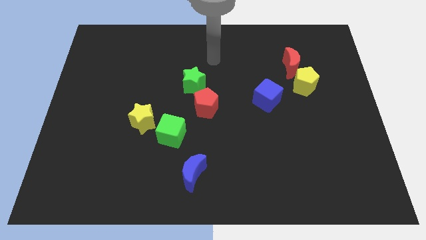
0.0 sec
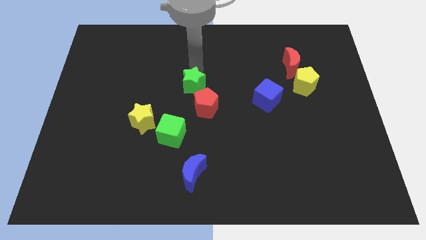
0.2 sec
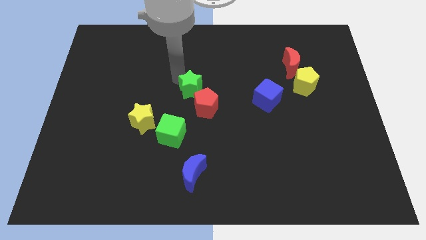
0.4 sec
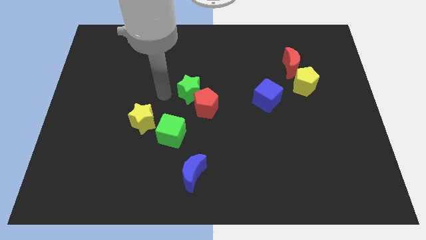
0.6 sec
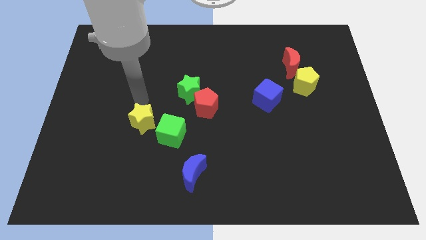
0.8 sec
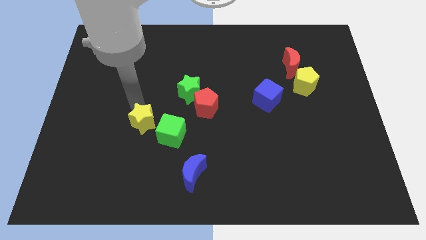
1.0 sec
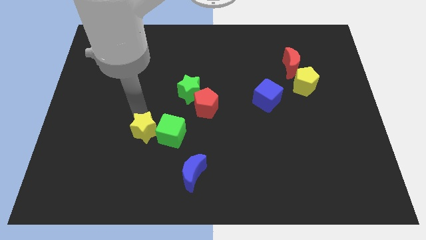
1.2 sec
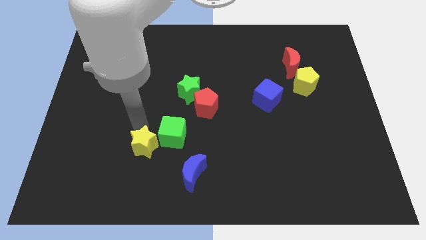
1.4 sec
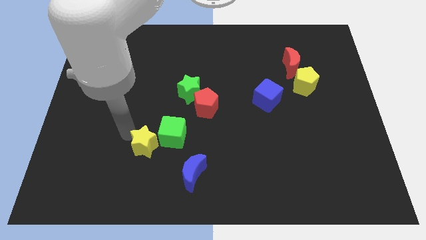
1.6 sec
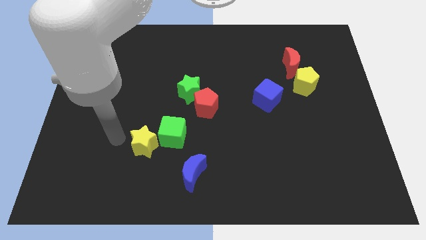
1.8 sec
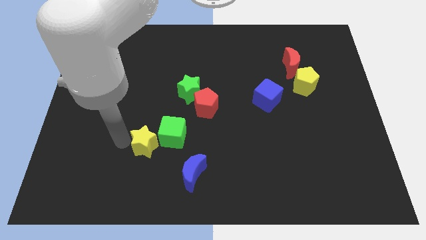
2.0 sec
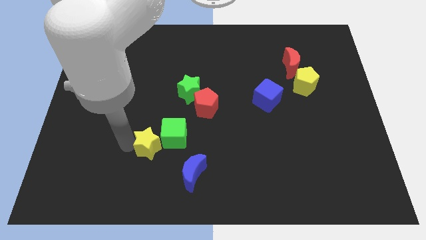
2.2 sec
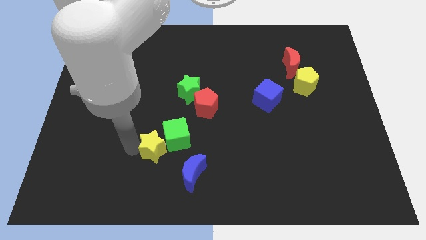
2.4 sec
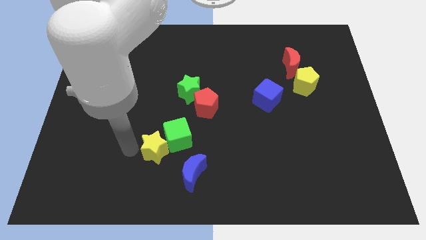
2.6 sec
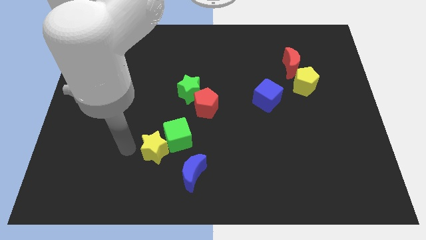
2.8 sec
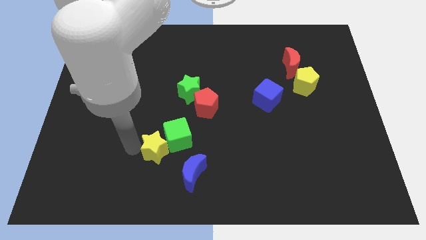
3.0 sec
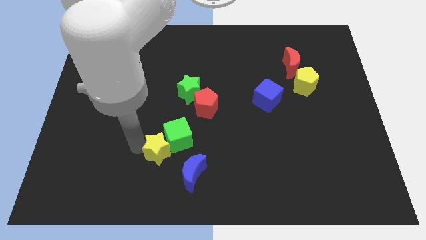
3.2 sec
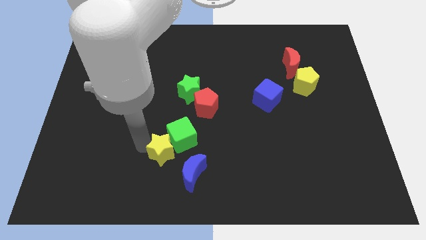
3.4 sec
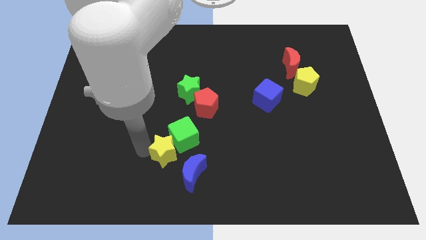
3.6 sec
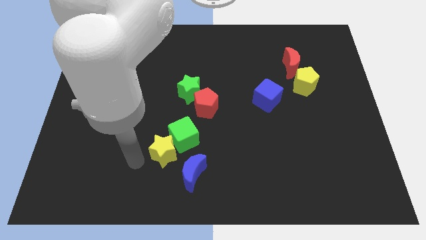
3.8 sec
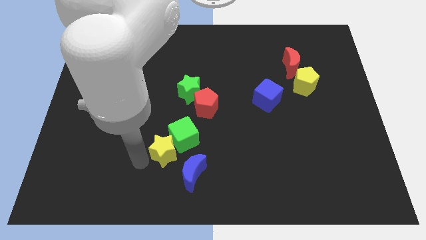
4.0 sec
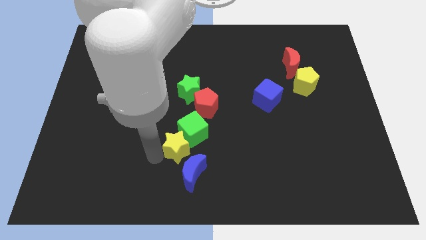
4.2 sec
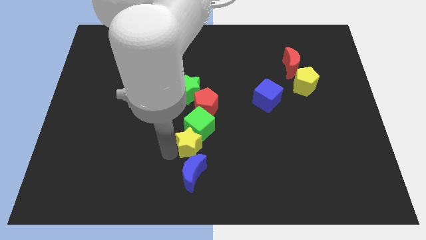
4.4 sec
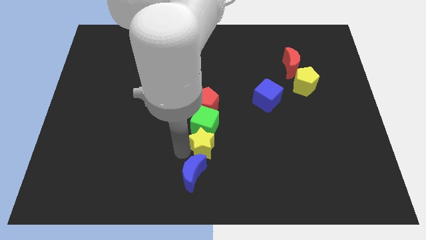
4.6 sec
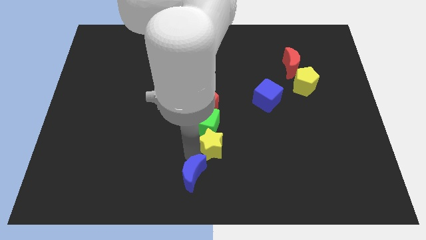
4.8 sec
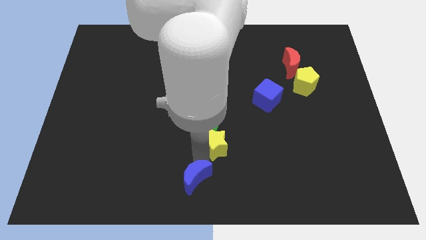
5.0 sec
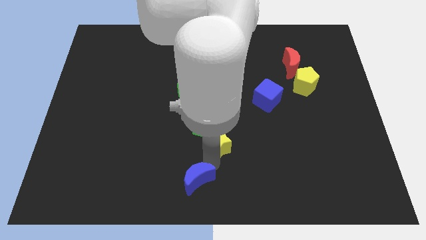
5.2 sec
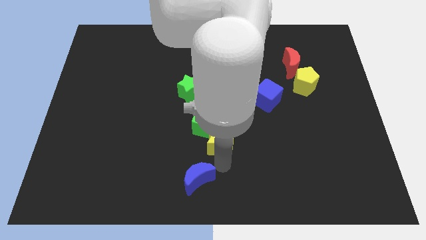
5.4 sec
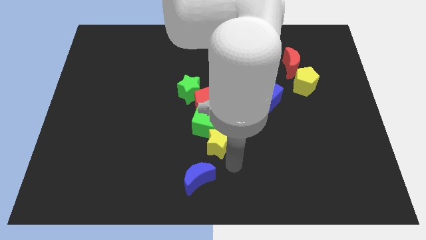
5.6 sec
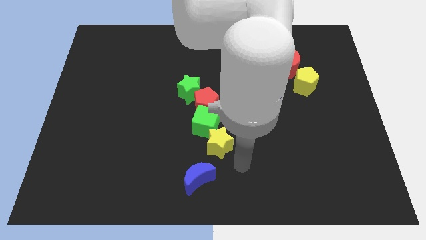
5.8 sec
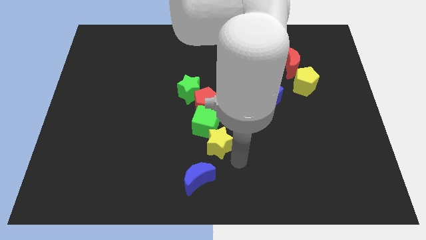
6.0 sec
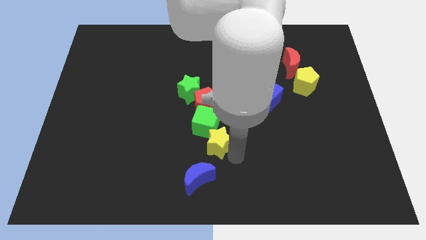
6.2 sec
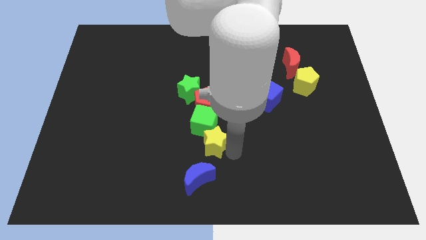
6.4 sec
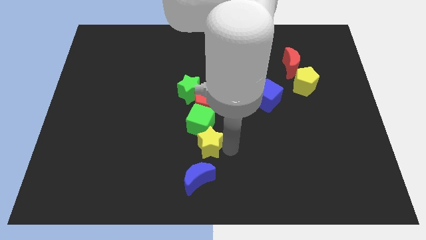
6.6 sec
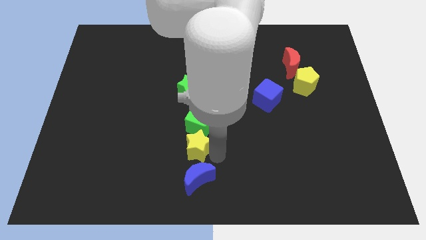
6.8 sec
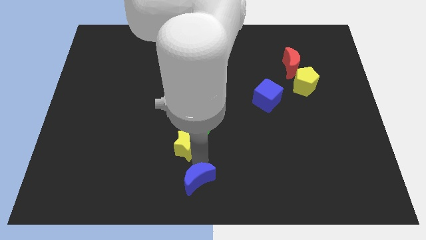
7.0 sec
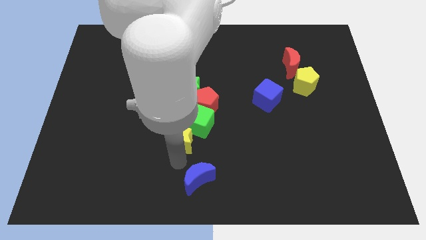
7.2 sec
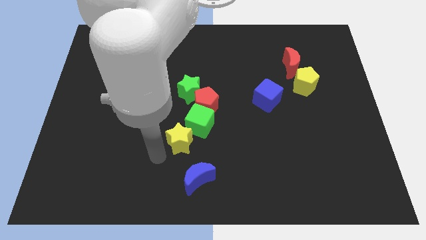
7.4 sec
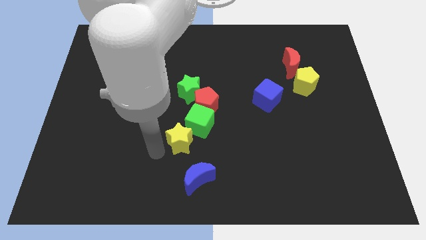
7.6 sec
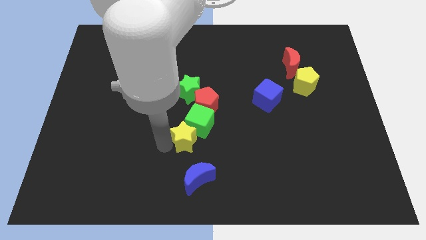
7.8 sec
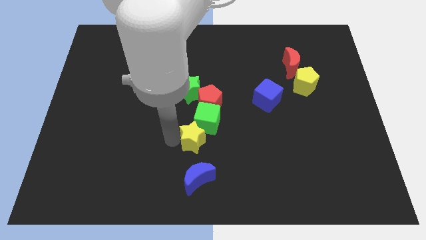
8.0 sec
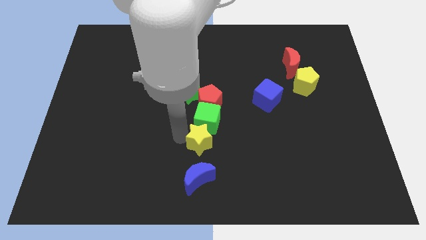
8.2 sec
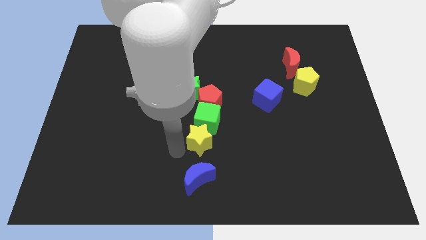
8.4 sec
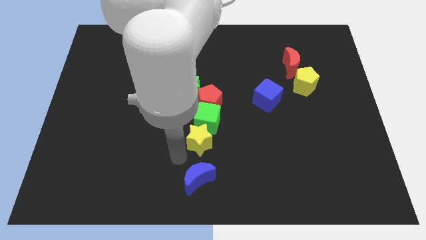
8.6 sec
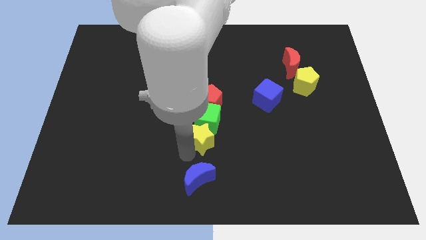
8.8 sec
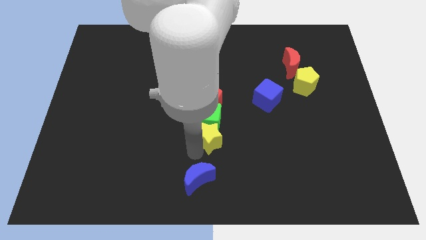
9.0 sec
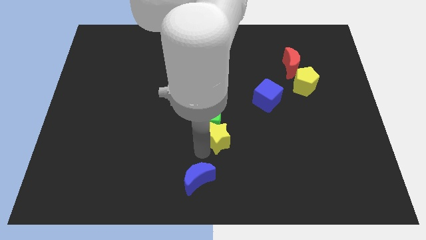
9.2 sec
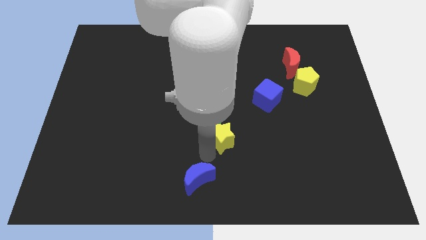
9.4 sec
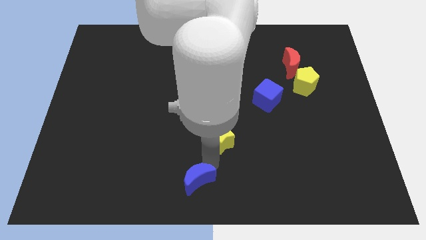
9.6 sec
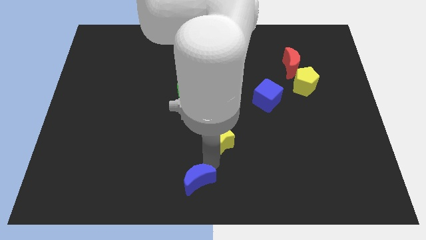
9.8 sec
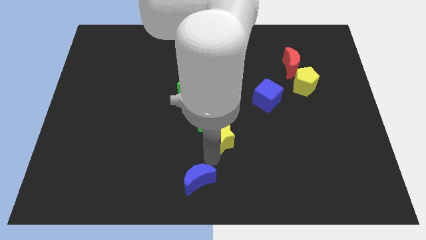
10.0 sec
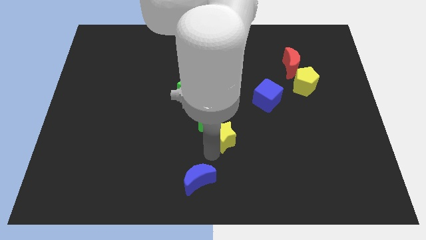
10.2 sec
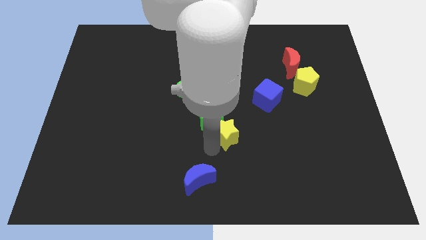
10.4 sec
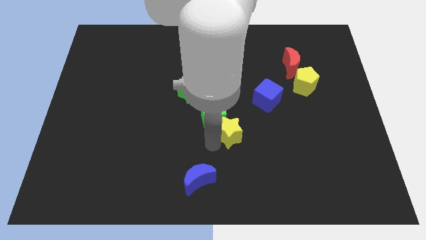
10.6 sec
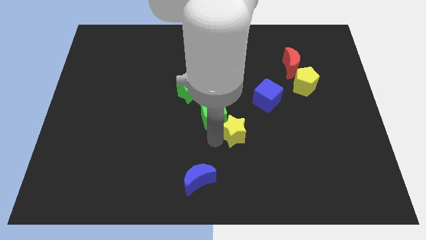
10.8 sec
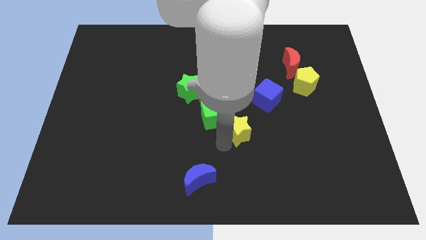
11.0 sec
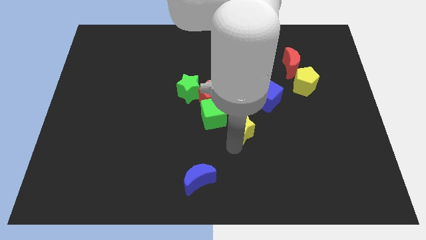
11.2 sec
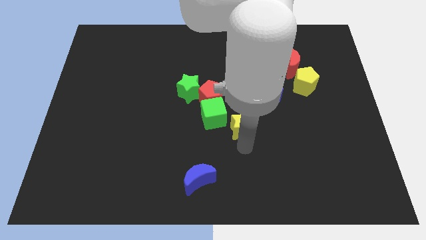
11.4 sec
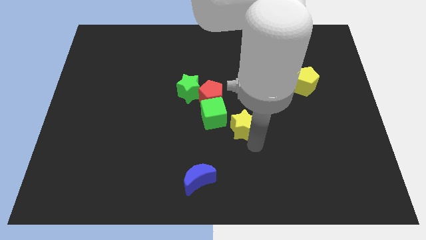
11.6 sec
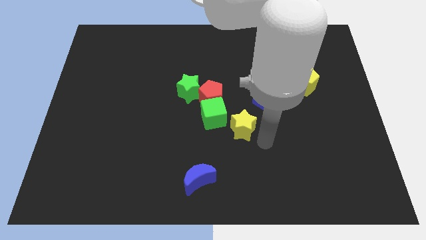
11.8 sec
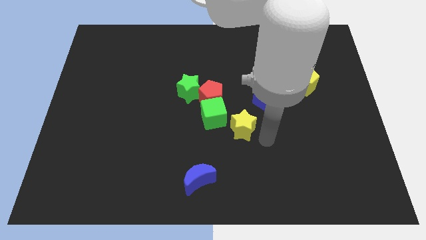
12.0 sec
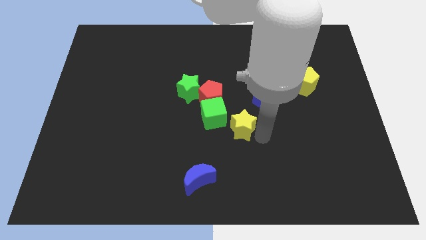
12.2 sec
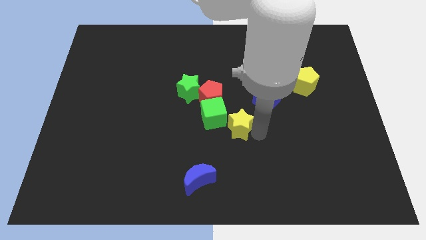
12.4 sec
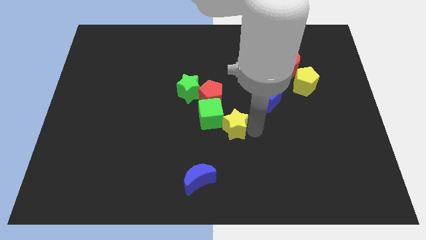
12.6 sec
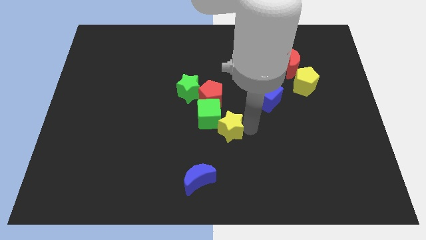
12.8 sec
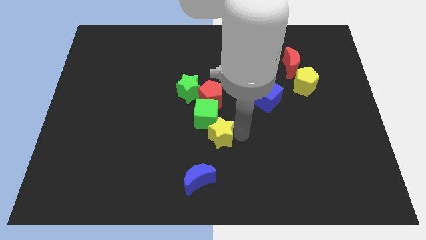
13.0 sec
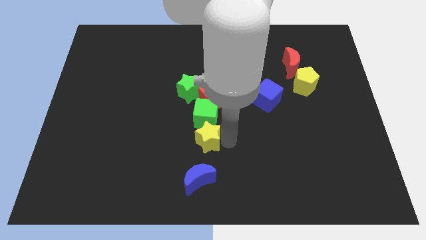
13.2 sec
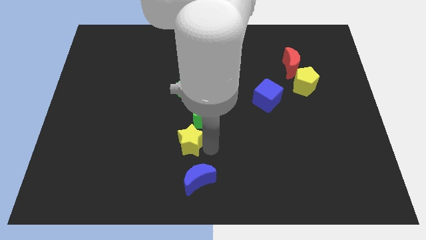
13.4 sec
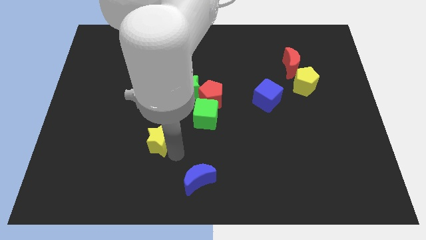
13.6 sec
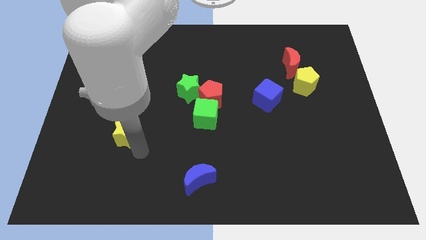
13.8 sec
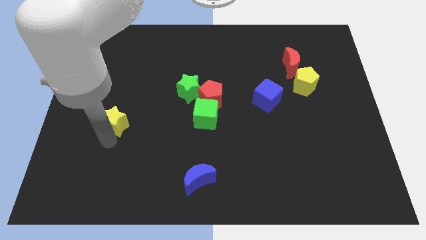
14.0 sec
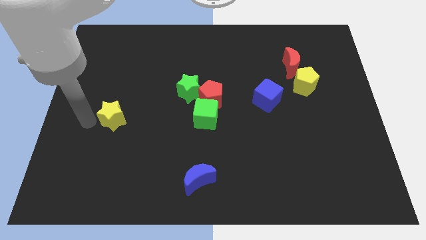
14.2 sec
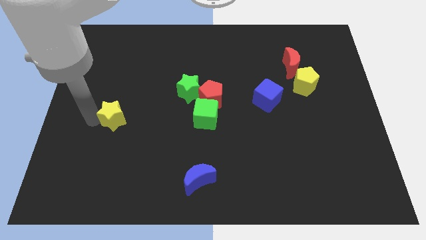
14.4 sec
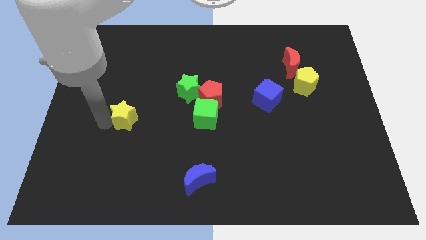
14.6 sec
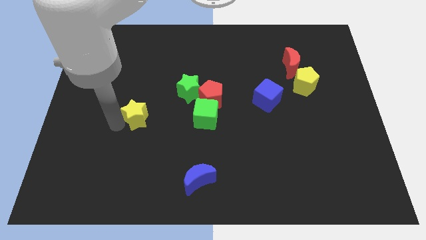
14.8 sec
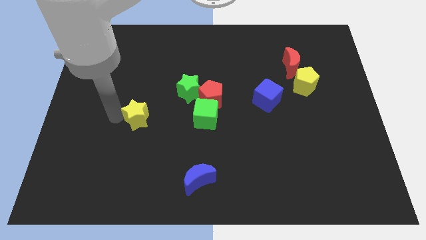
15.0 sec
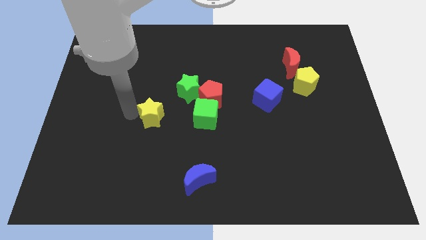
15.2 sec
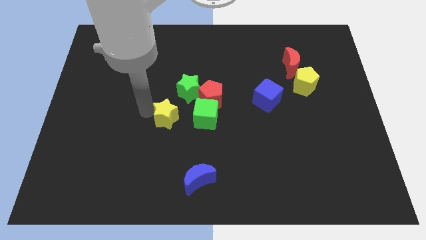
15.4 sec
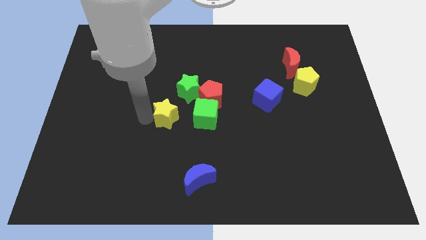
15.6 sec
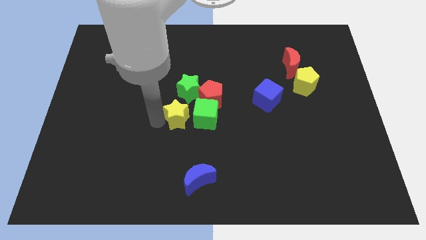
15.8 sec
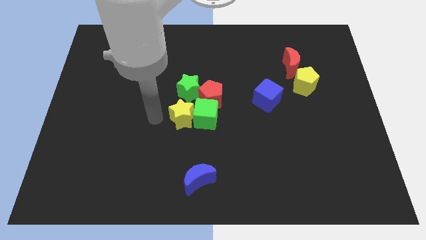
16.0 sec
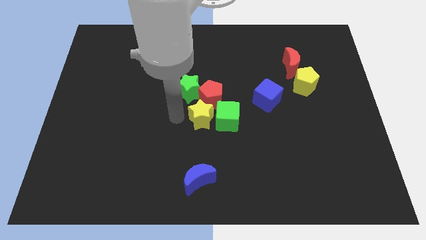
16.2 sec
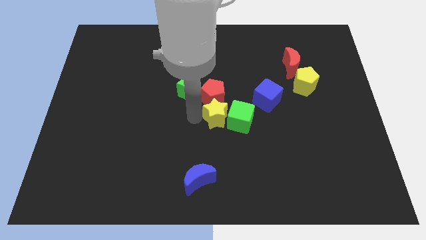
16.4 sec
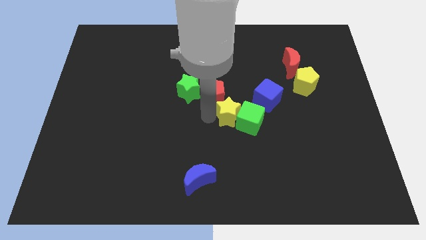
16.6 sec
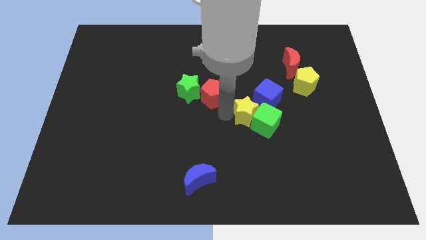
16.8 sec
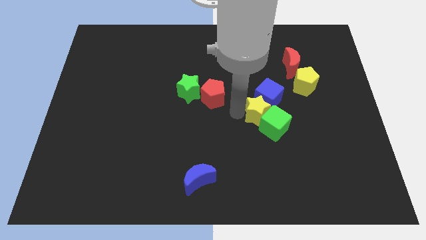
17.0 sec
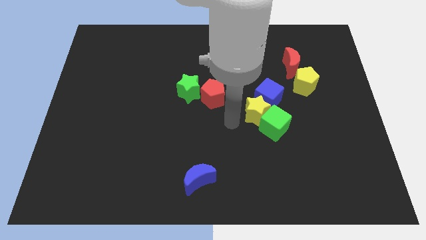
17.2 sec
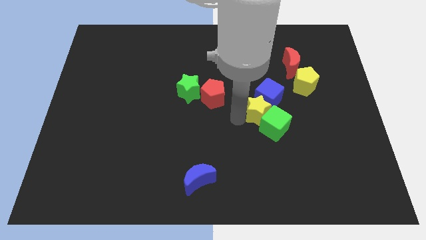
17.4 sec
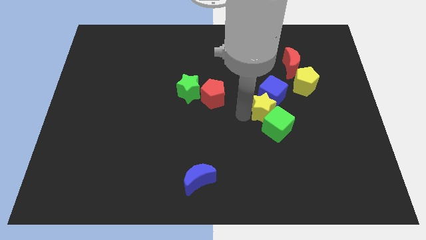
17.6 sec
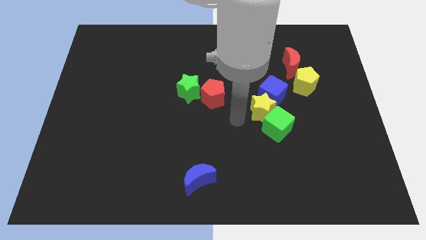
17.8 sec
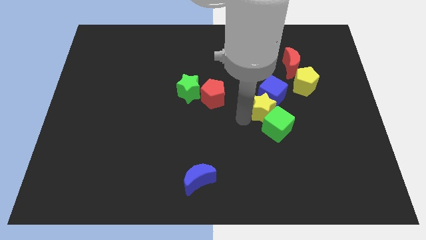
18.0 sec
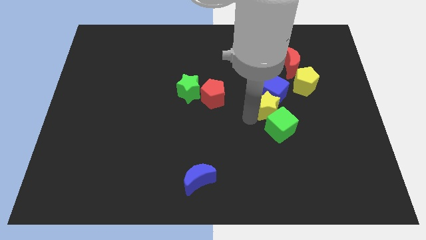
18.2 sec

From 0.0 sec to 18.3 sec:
push the yellow star to the bottom left of the yellow pentagon
